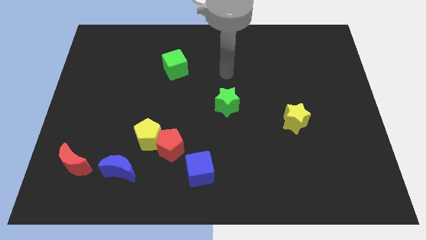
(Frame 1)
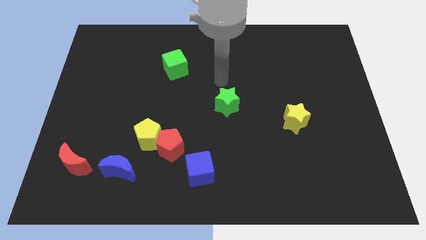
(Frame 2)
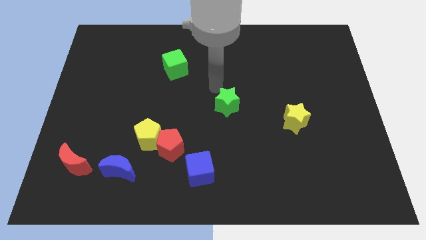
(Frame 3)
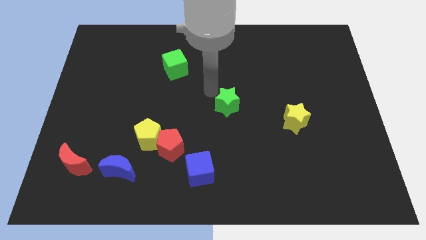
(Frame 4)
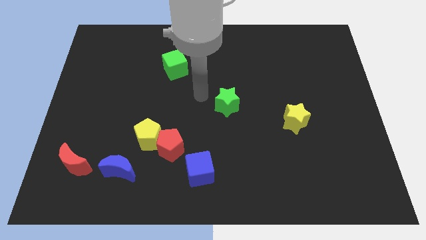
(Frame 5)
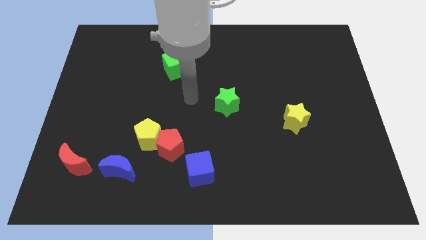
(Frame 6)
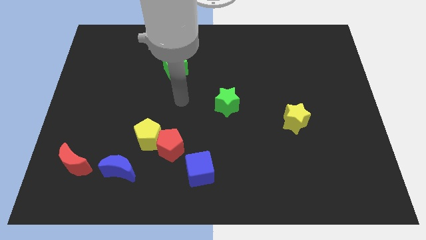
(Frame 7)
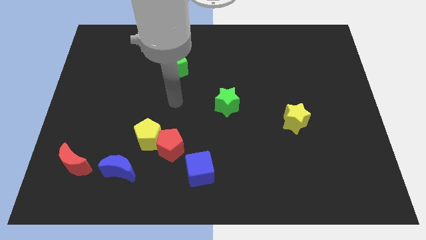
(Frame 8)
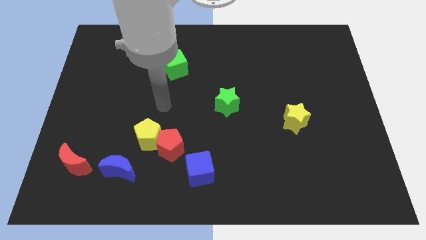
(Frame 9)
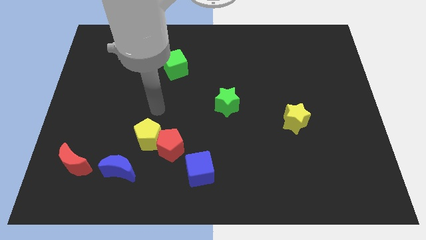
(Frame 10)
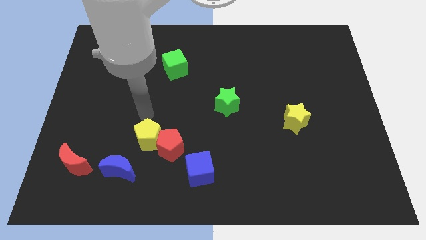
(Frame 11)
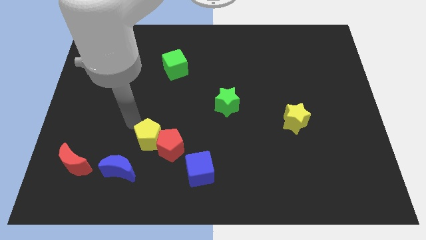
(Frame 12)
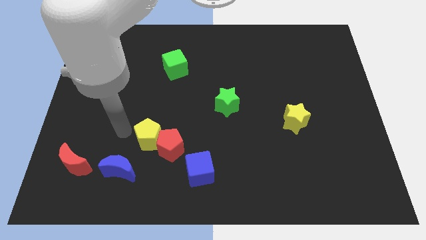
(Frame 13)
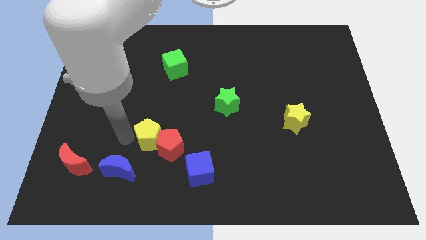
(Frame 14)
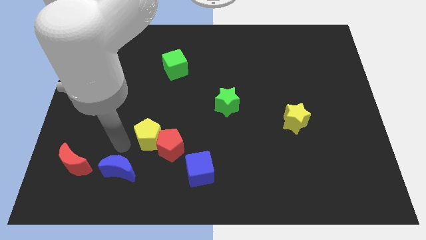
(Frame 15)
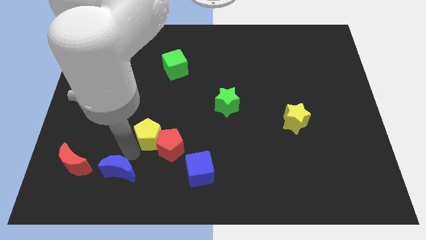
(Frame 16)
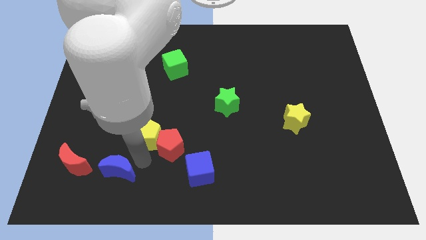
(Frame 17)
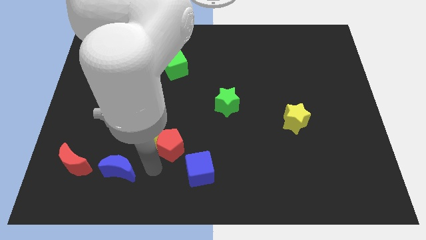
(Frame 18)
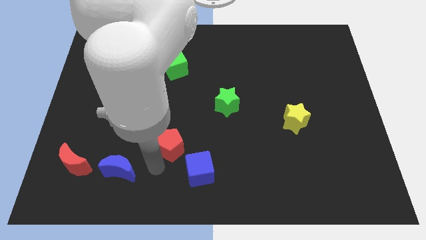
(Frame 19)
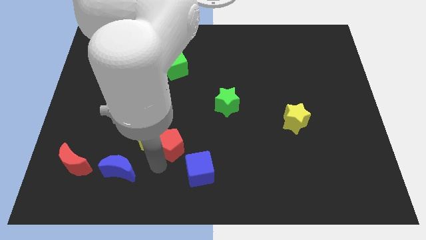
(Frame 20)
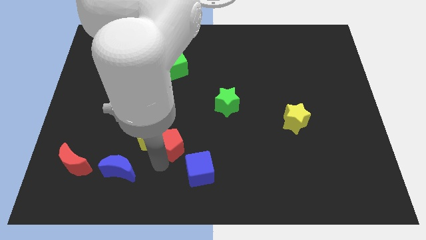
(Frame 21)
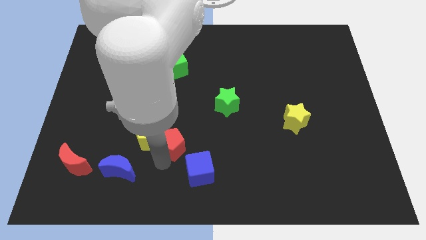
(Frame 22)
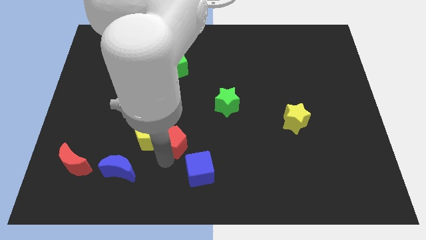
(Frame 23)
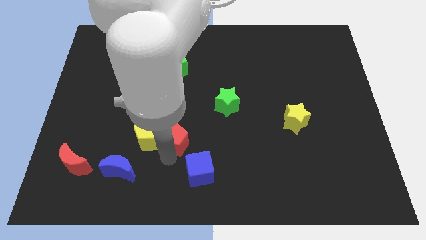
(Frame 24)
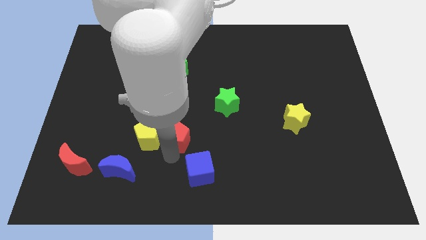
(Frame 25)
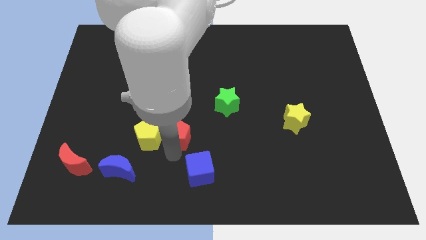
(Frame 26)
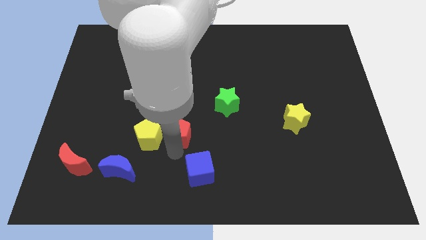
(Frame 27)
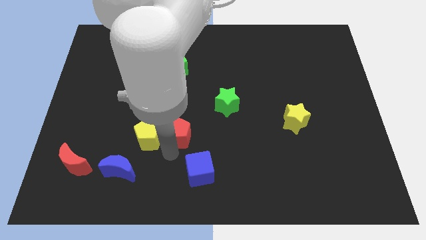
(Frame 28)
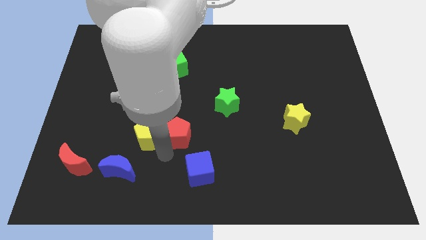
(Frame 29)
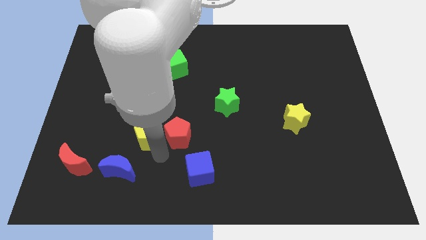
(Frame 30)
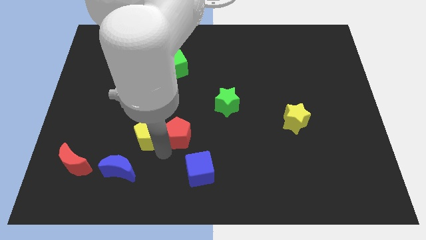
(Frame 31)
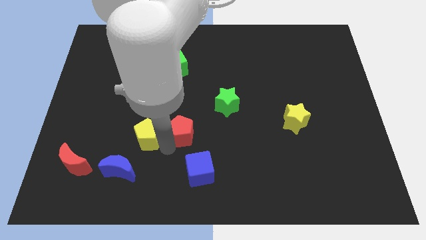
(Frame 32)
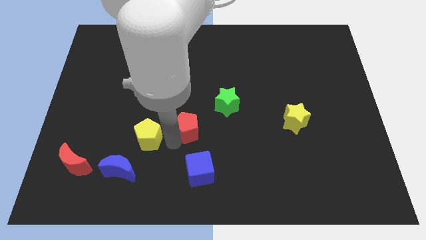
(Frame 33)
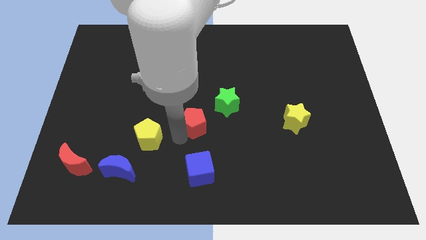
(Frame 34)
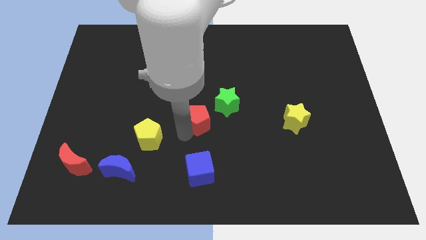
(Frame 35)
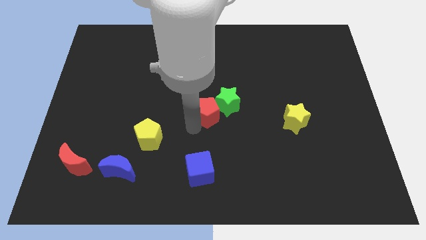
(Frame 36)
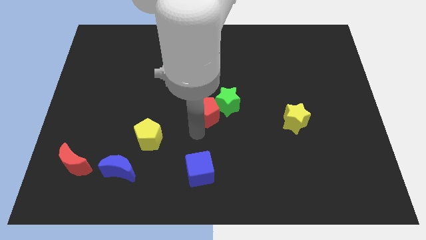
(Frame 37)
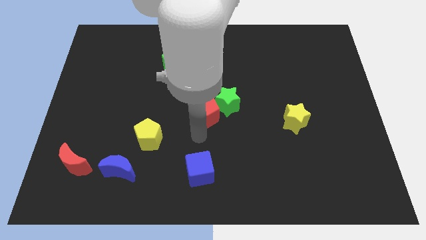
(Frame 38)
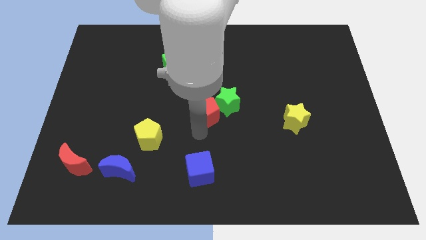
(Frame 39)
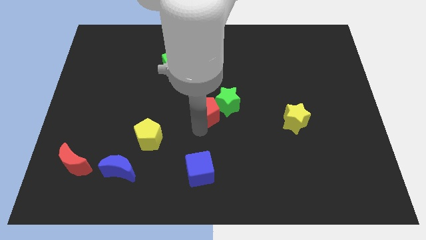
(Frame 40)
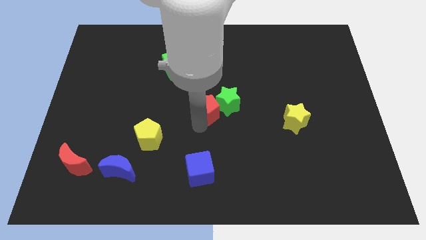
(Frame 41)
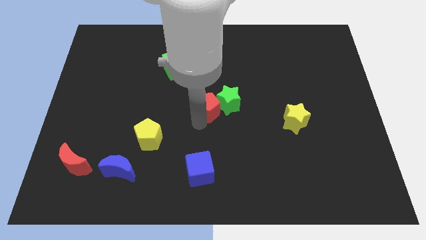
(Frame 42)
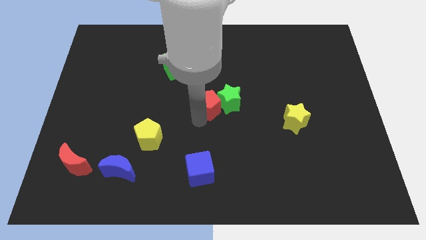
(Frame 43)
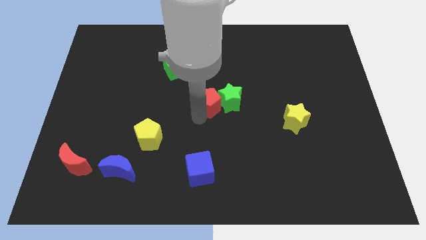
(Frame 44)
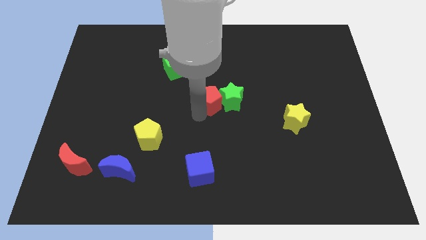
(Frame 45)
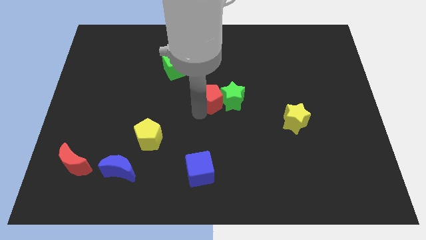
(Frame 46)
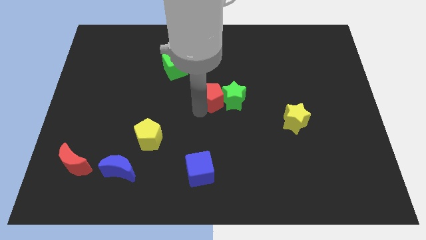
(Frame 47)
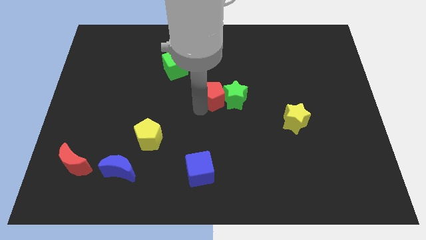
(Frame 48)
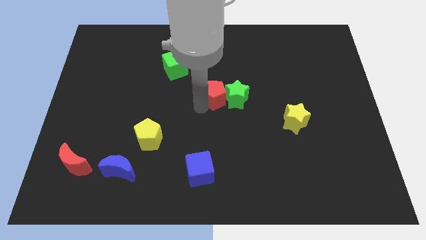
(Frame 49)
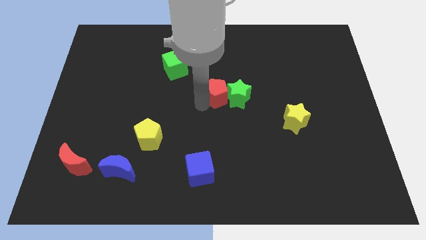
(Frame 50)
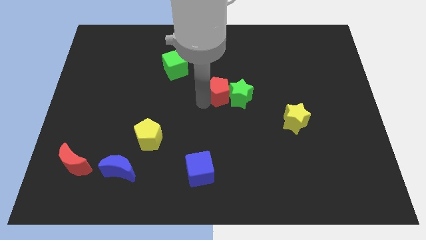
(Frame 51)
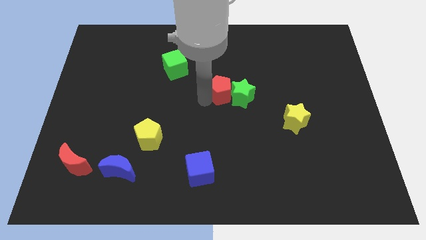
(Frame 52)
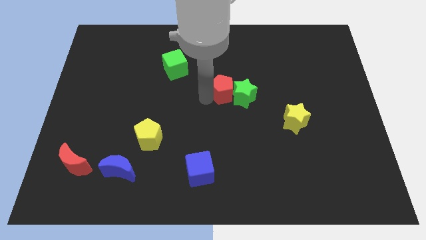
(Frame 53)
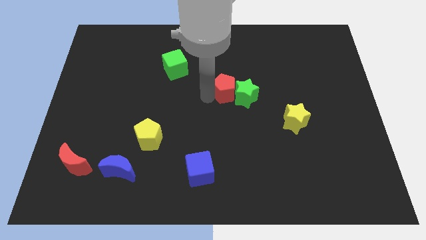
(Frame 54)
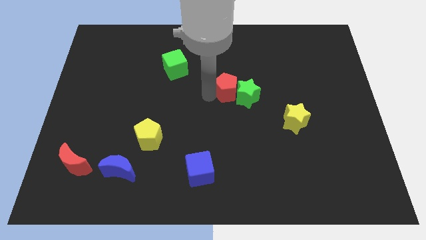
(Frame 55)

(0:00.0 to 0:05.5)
push the red pentagon upwards and right diagonally

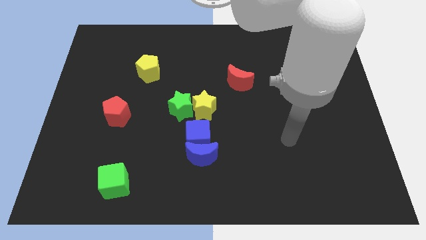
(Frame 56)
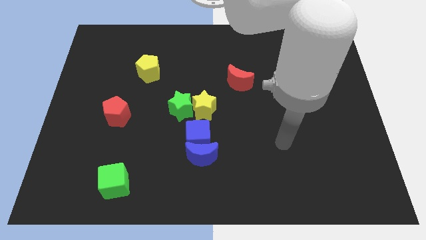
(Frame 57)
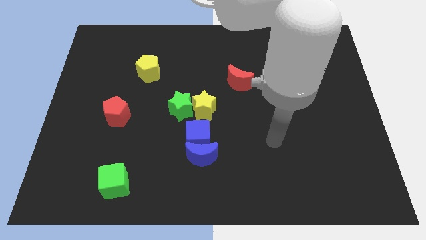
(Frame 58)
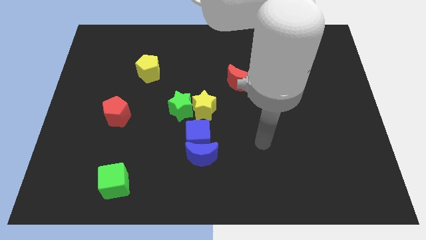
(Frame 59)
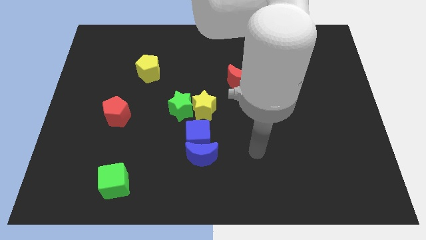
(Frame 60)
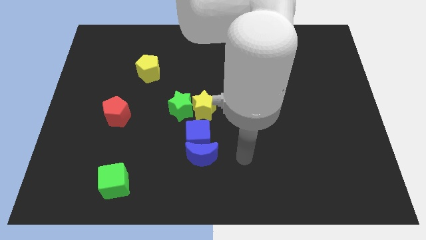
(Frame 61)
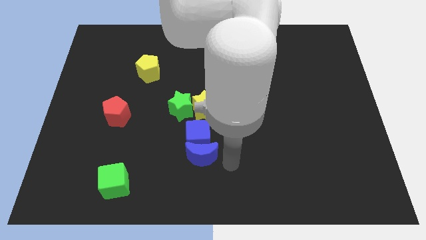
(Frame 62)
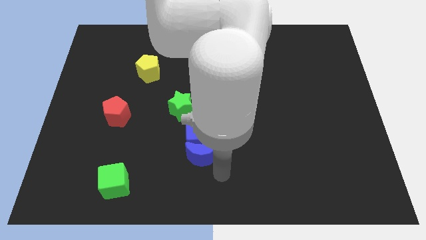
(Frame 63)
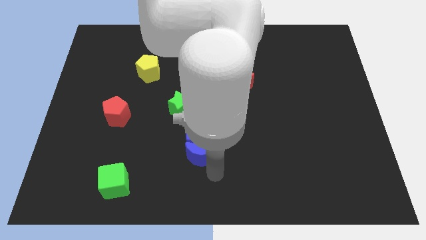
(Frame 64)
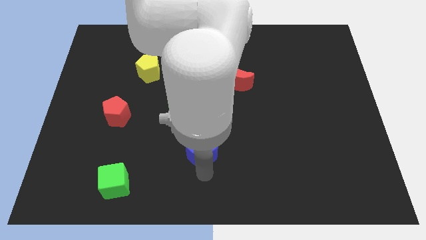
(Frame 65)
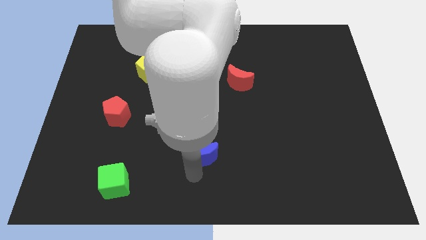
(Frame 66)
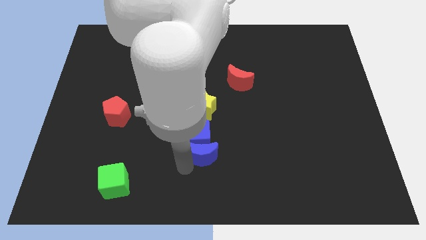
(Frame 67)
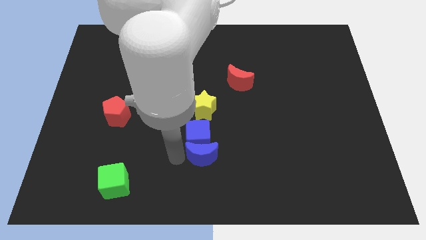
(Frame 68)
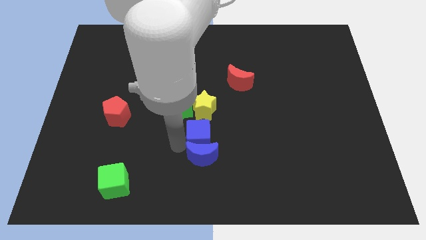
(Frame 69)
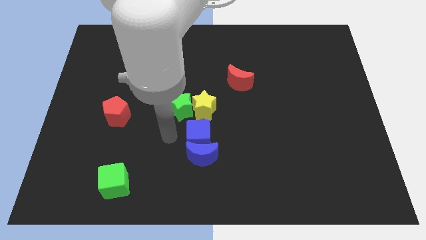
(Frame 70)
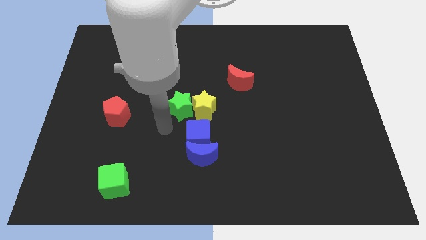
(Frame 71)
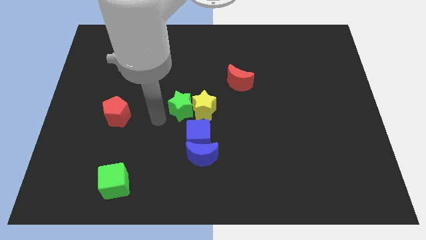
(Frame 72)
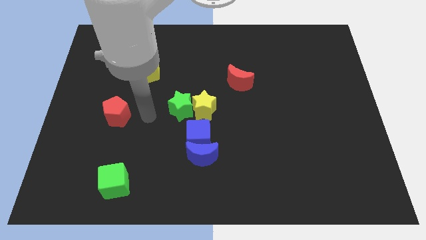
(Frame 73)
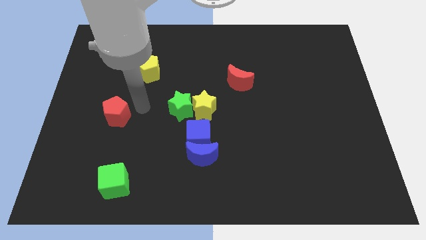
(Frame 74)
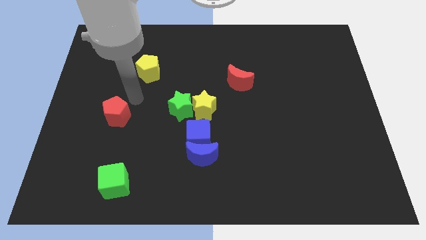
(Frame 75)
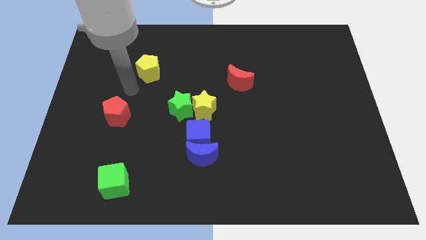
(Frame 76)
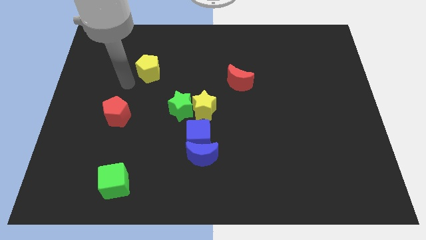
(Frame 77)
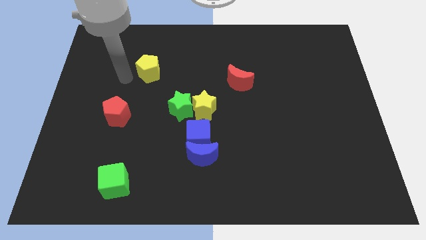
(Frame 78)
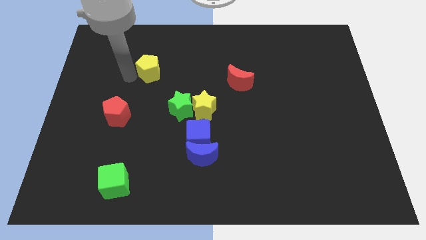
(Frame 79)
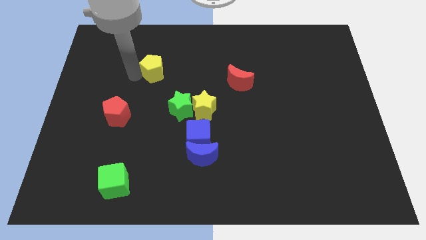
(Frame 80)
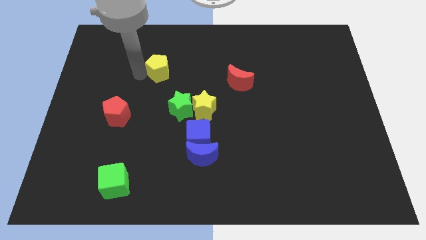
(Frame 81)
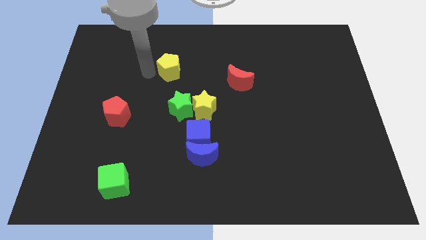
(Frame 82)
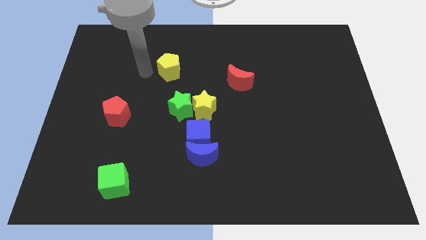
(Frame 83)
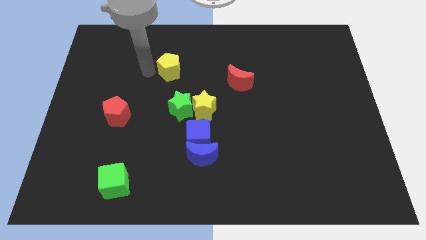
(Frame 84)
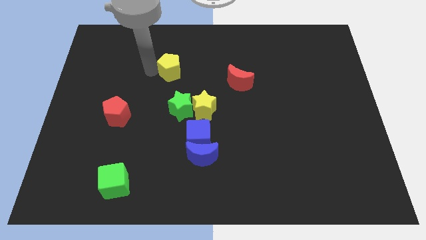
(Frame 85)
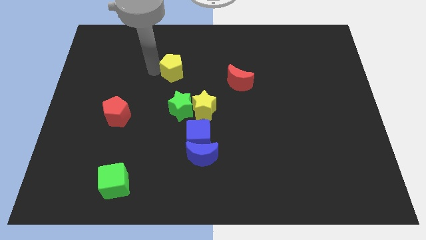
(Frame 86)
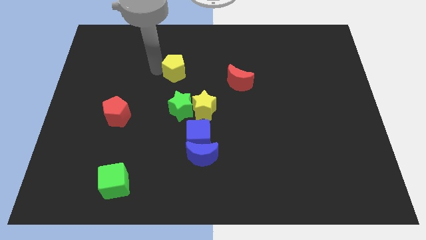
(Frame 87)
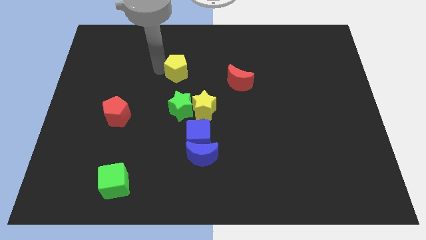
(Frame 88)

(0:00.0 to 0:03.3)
slightly move the yellow pentagon to the right
